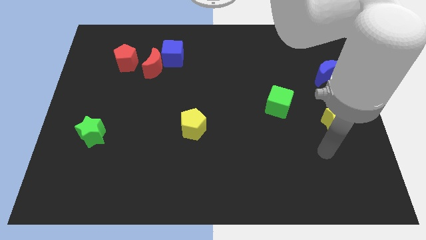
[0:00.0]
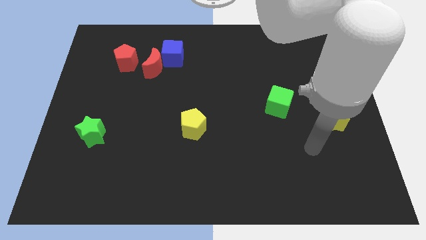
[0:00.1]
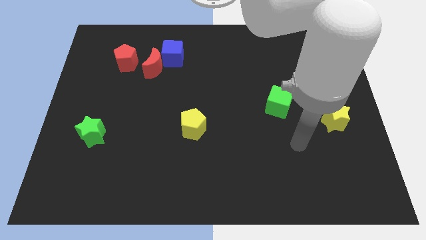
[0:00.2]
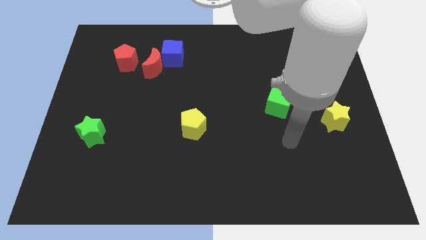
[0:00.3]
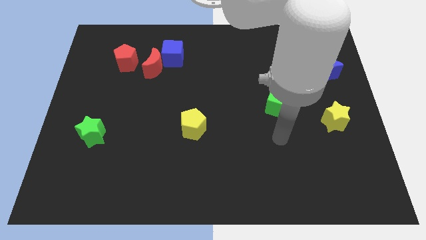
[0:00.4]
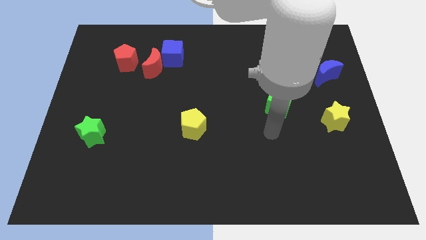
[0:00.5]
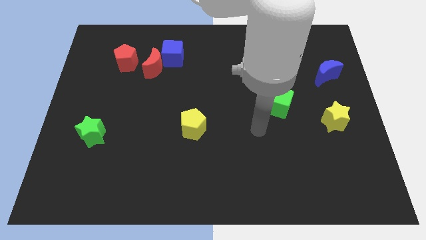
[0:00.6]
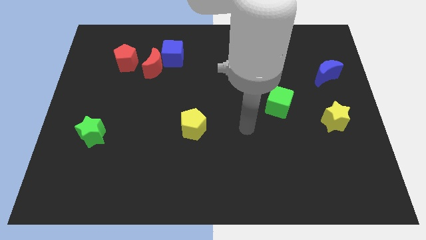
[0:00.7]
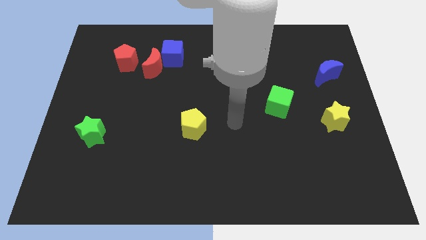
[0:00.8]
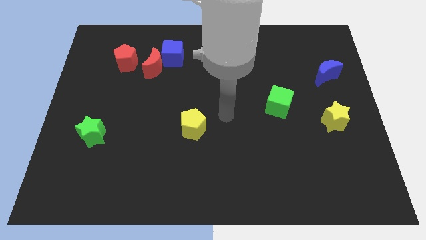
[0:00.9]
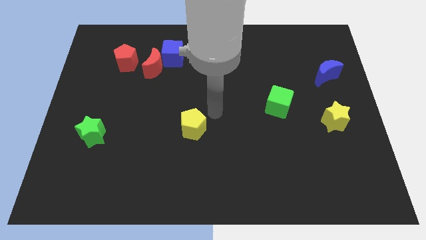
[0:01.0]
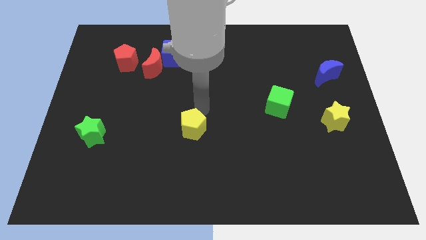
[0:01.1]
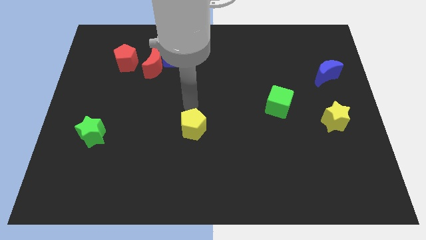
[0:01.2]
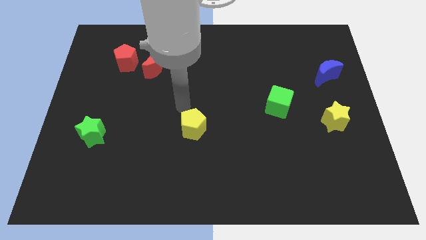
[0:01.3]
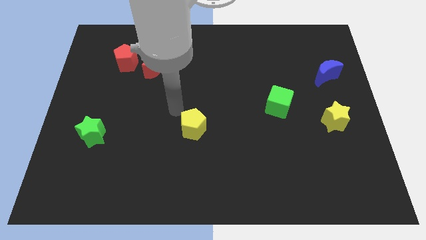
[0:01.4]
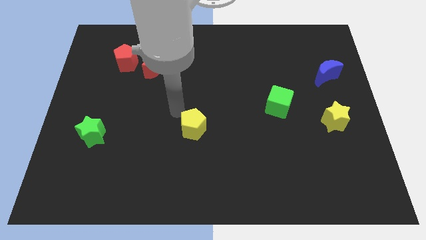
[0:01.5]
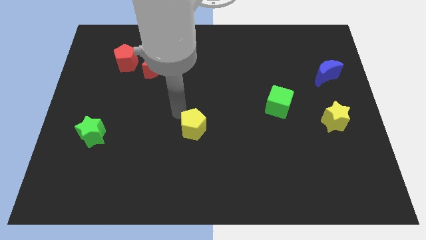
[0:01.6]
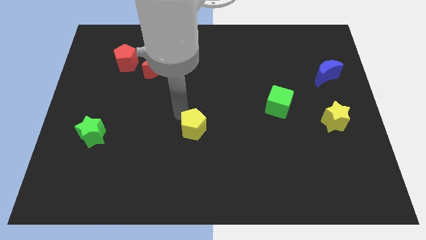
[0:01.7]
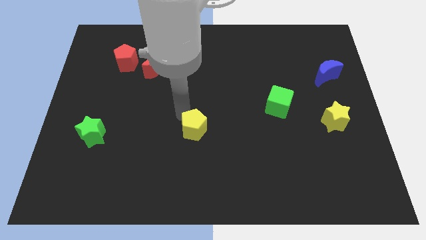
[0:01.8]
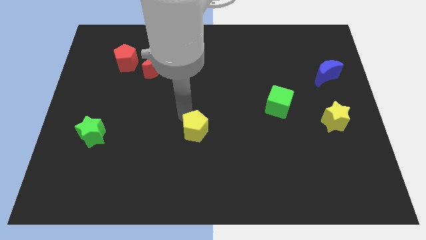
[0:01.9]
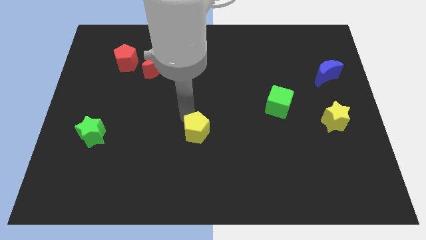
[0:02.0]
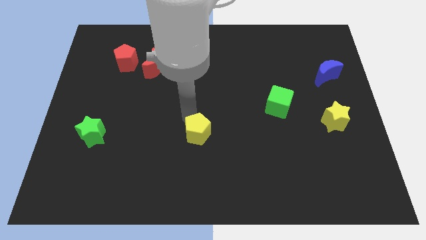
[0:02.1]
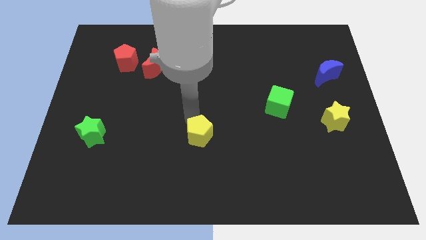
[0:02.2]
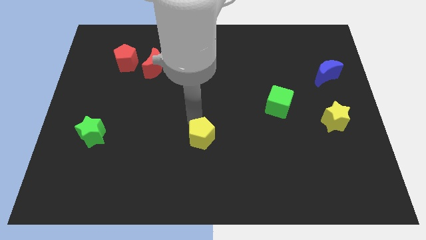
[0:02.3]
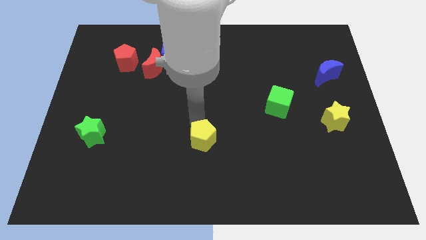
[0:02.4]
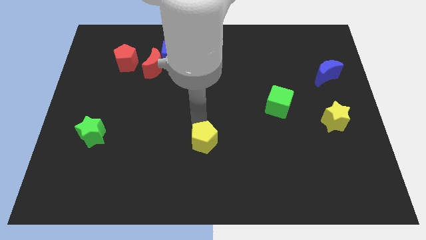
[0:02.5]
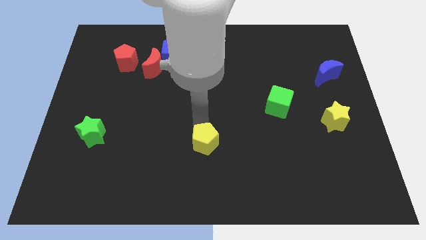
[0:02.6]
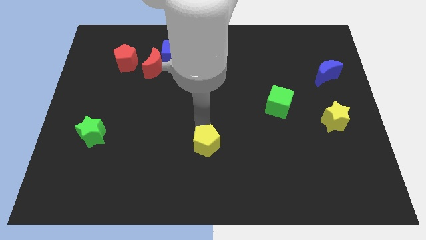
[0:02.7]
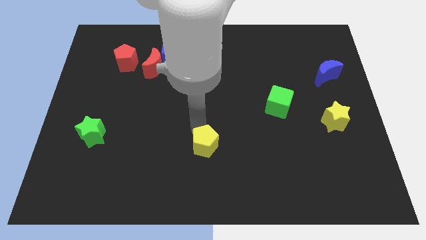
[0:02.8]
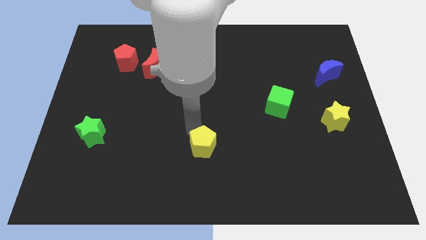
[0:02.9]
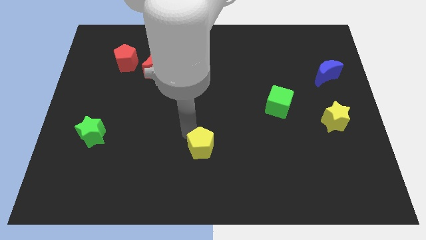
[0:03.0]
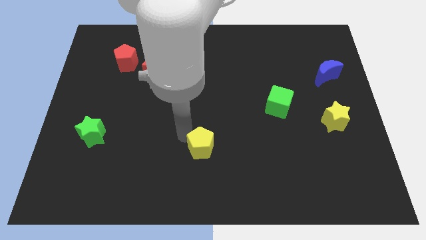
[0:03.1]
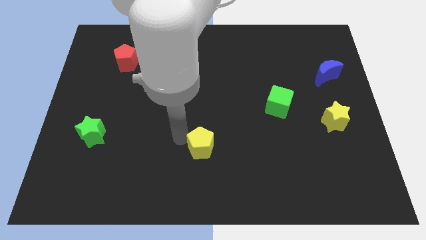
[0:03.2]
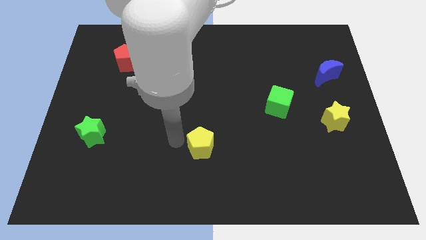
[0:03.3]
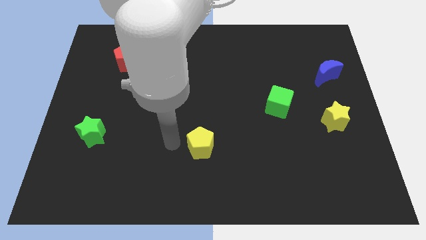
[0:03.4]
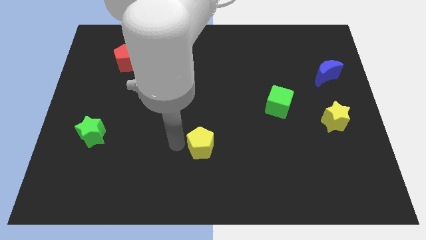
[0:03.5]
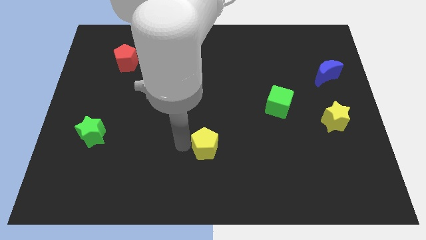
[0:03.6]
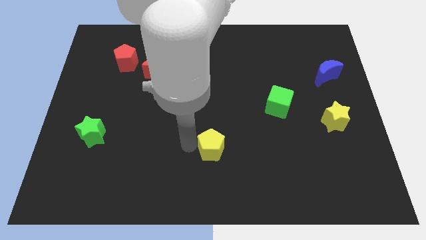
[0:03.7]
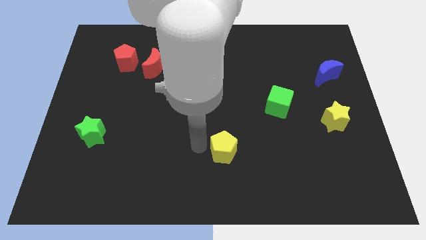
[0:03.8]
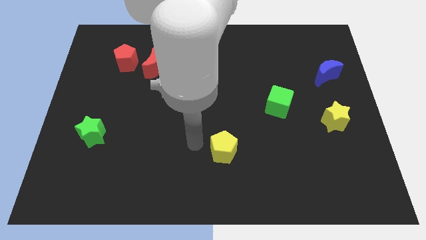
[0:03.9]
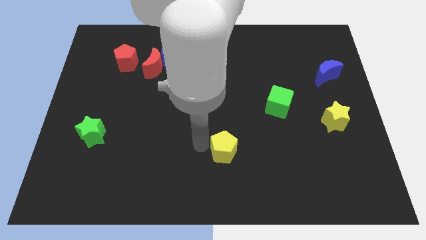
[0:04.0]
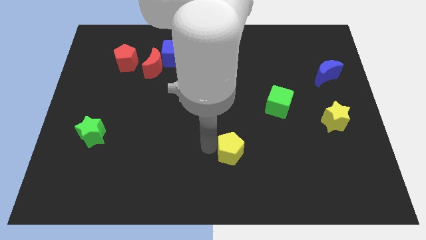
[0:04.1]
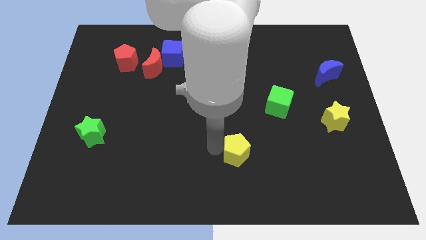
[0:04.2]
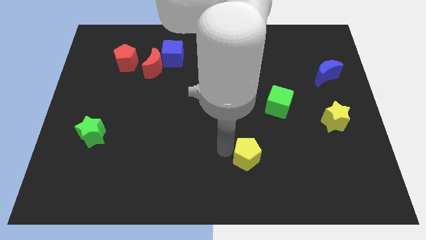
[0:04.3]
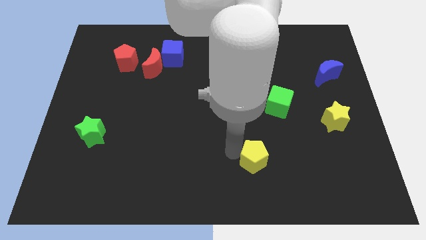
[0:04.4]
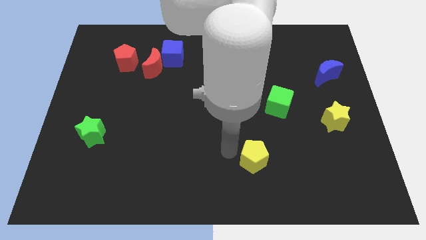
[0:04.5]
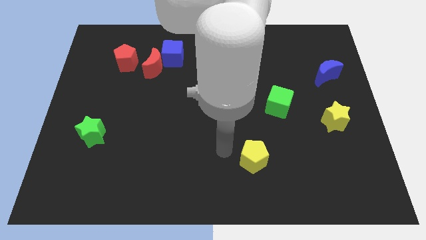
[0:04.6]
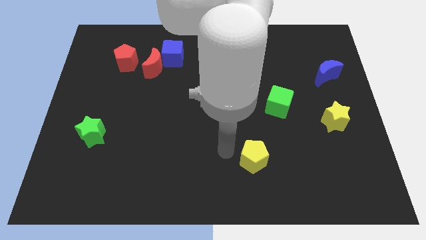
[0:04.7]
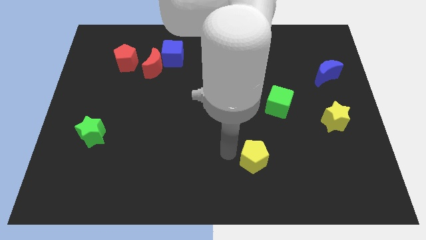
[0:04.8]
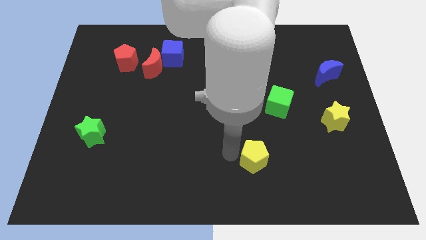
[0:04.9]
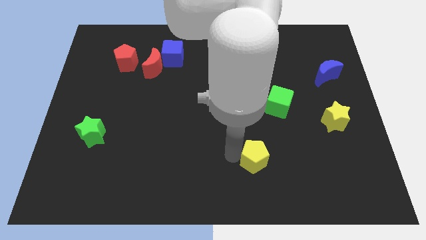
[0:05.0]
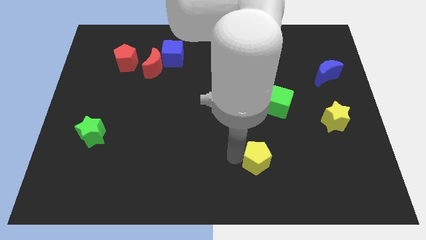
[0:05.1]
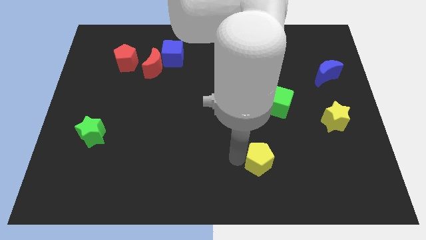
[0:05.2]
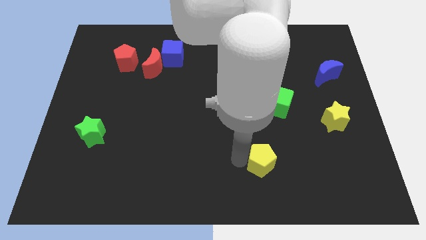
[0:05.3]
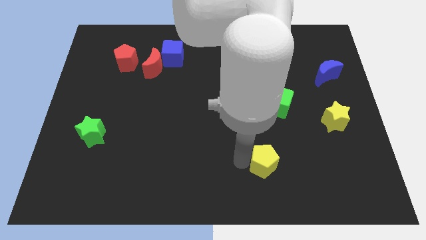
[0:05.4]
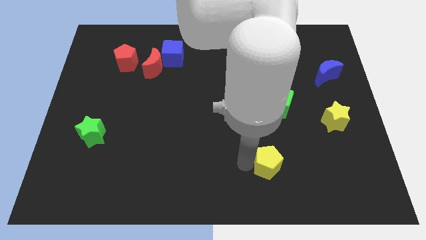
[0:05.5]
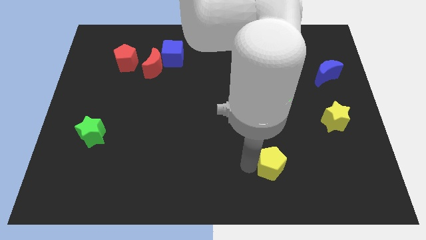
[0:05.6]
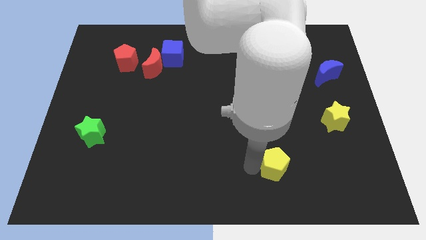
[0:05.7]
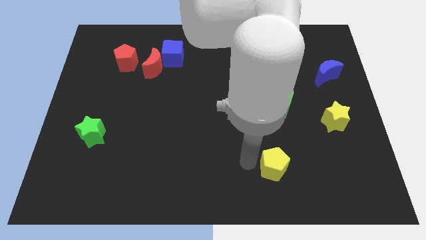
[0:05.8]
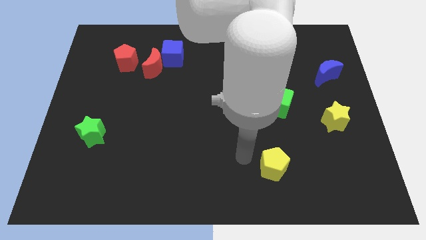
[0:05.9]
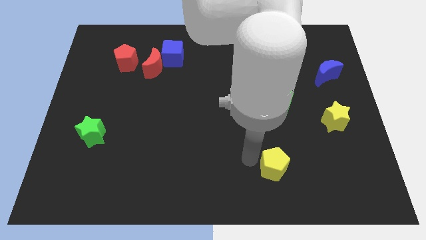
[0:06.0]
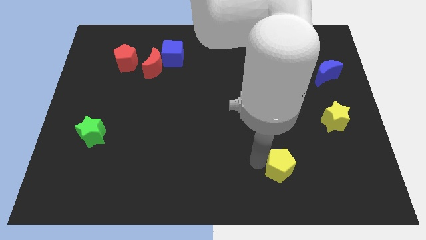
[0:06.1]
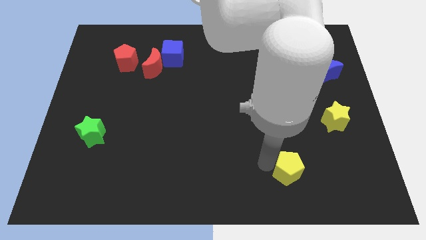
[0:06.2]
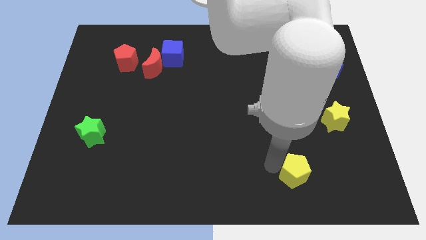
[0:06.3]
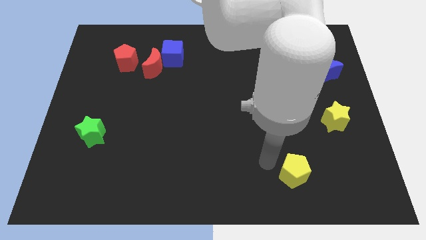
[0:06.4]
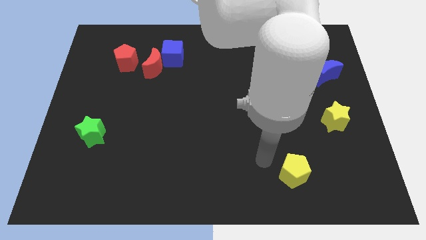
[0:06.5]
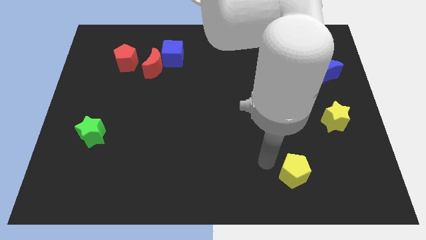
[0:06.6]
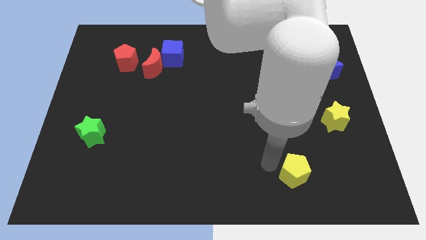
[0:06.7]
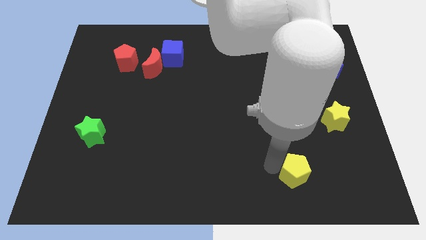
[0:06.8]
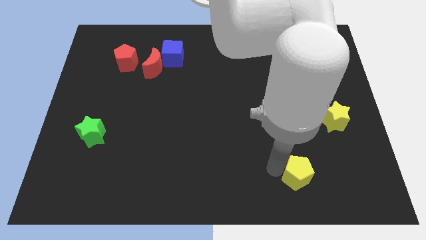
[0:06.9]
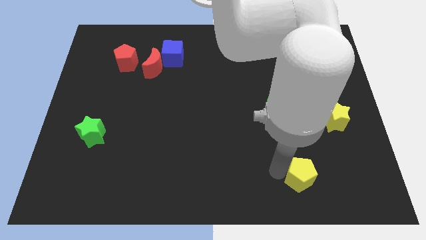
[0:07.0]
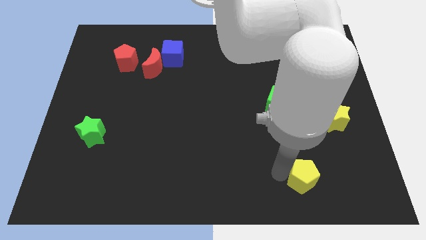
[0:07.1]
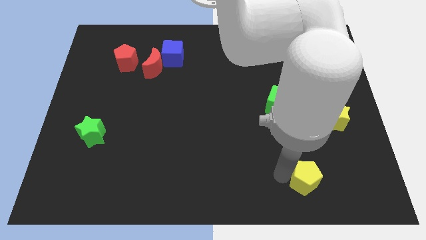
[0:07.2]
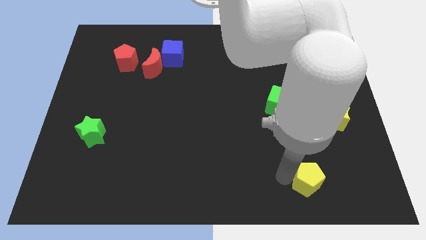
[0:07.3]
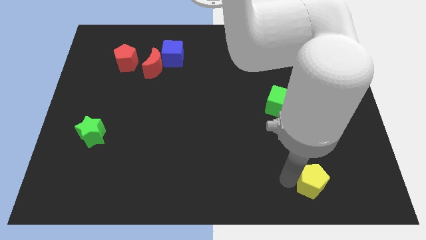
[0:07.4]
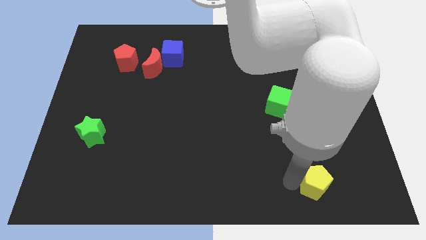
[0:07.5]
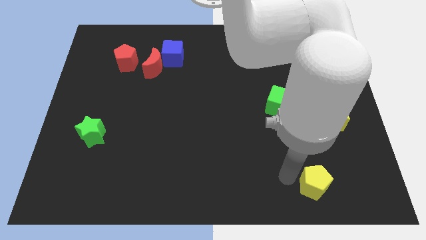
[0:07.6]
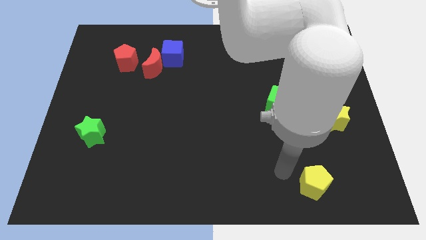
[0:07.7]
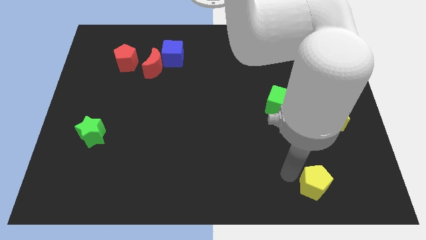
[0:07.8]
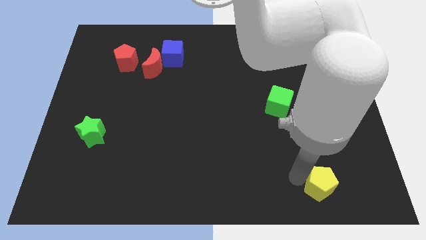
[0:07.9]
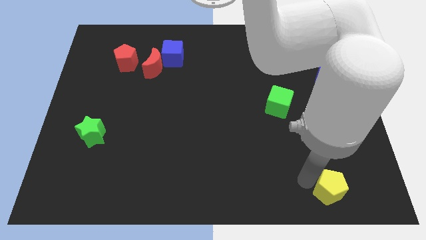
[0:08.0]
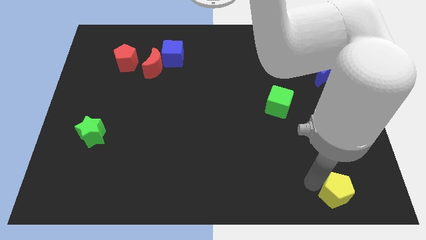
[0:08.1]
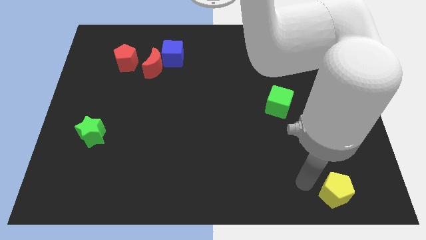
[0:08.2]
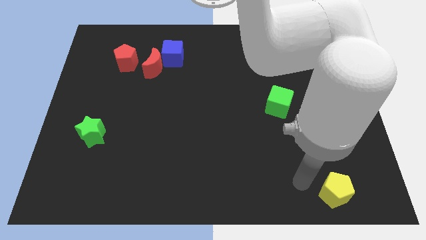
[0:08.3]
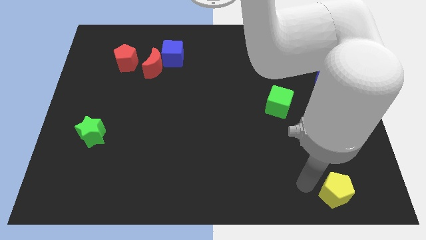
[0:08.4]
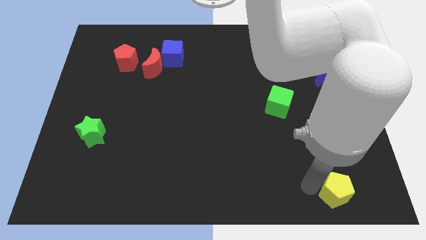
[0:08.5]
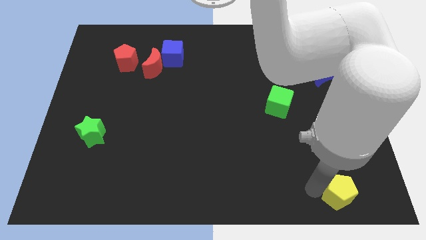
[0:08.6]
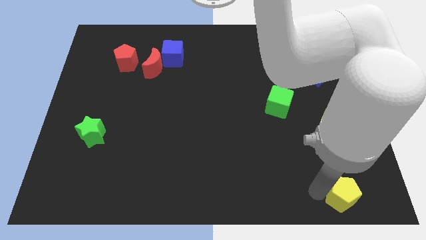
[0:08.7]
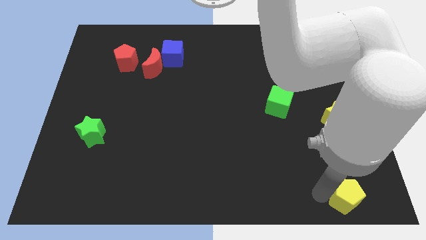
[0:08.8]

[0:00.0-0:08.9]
put the yellow pentagon to the lower right corner
